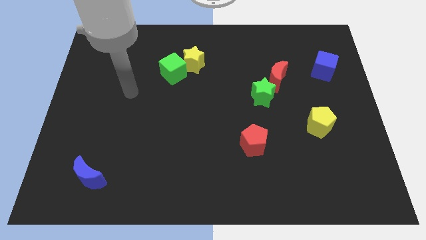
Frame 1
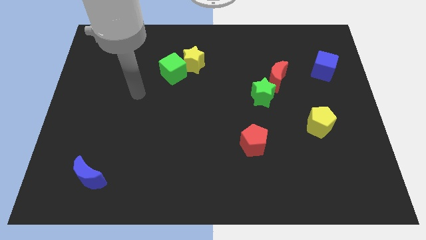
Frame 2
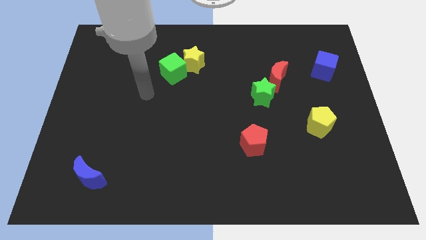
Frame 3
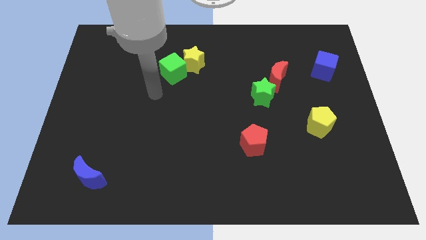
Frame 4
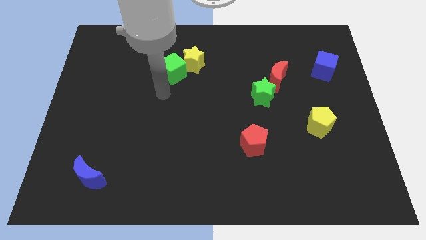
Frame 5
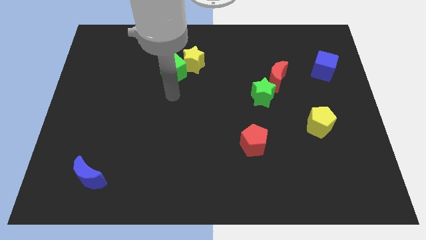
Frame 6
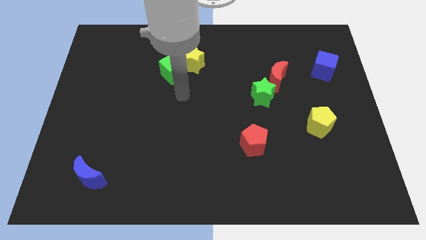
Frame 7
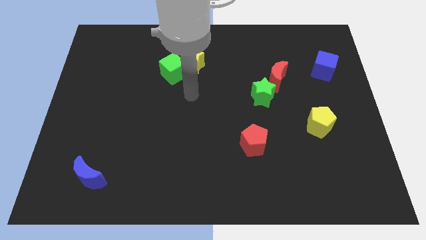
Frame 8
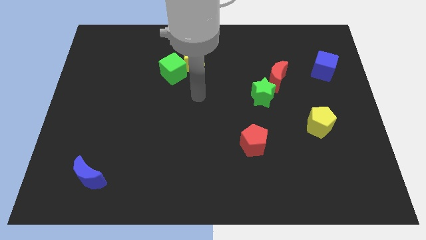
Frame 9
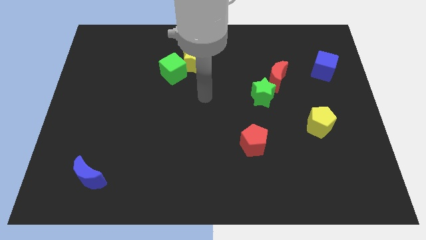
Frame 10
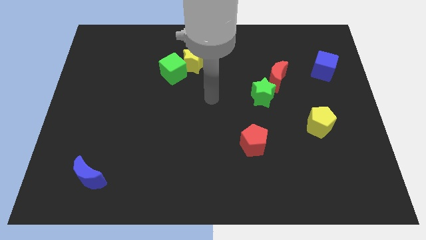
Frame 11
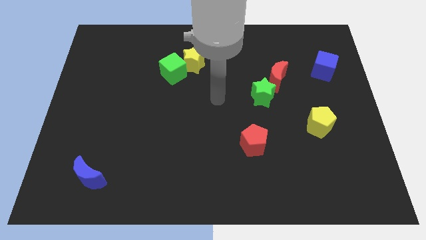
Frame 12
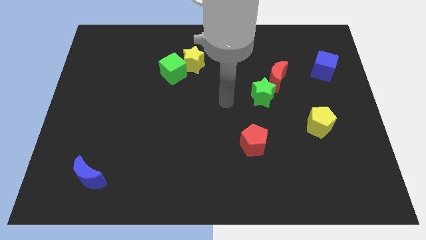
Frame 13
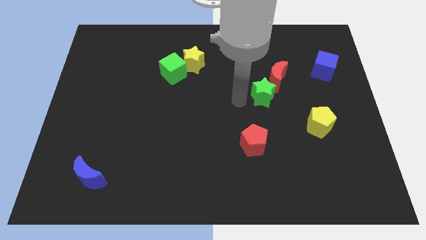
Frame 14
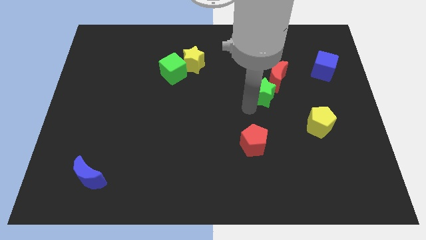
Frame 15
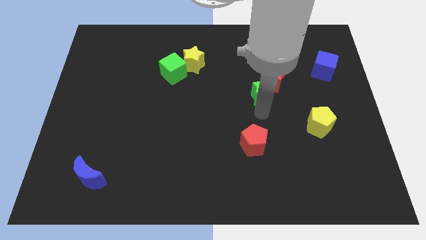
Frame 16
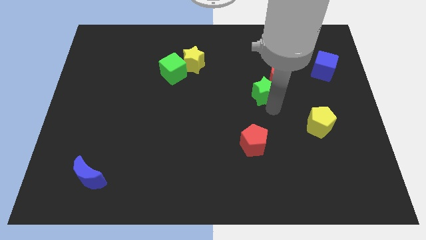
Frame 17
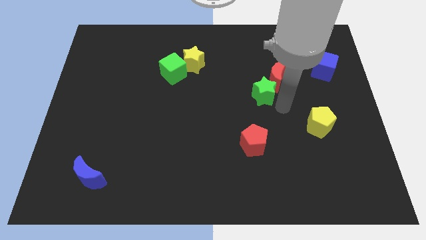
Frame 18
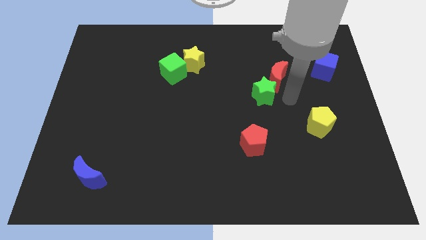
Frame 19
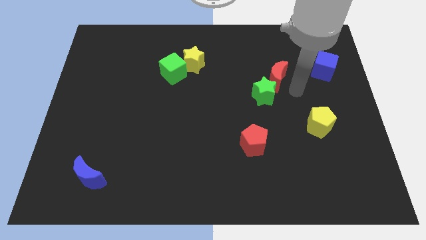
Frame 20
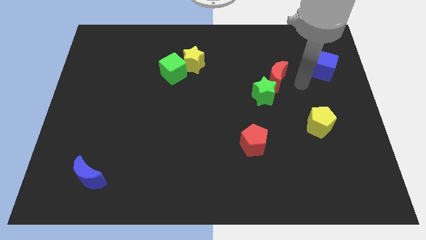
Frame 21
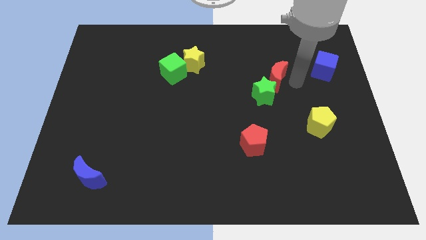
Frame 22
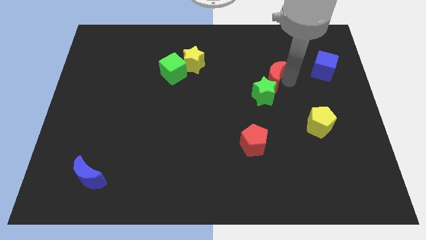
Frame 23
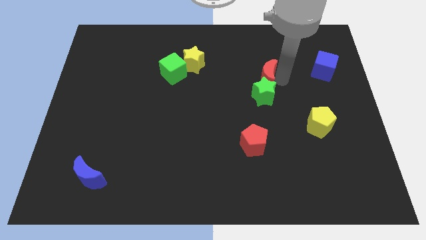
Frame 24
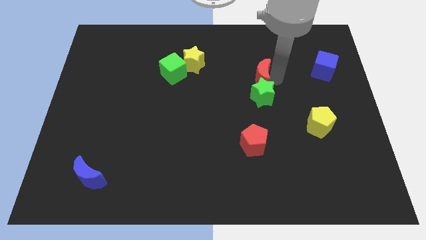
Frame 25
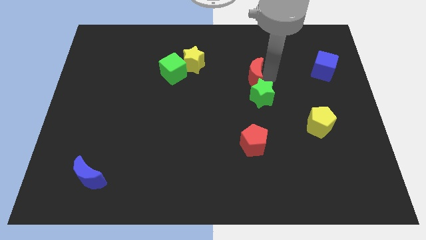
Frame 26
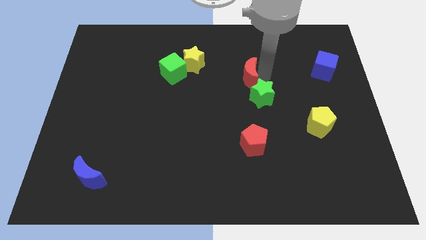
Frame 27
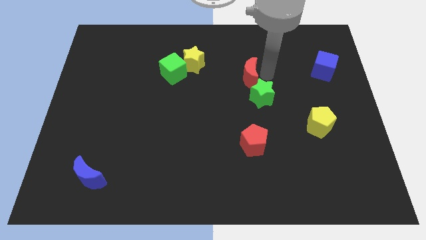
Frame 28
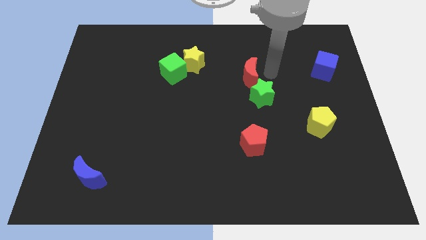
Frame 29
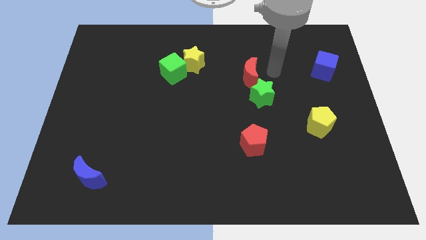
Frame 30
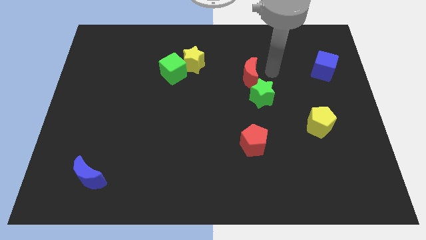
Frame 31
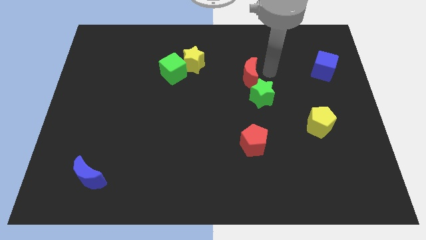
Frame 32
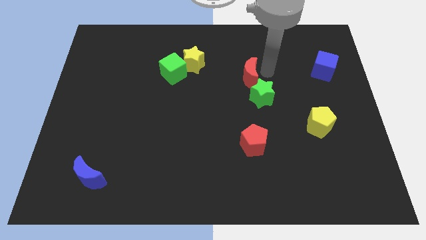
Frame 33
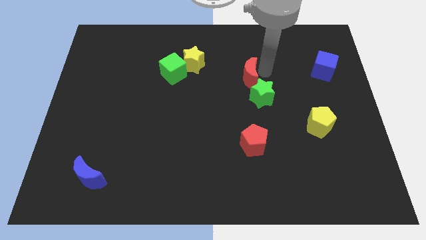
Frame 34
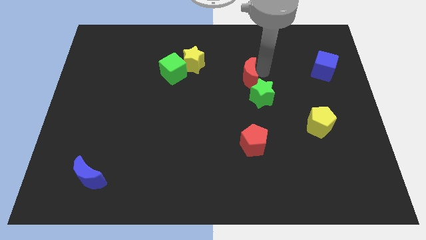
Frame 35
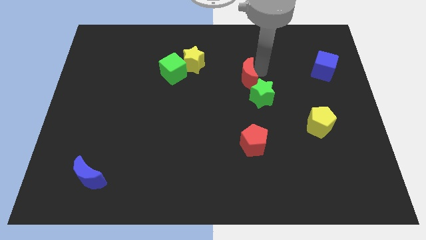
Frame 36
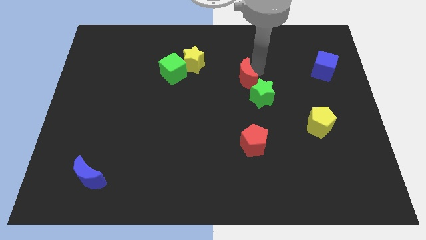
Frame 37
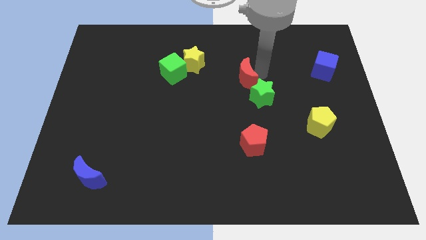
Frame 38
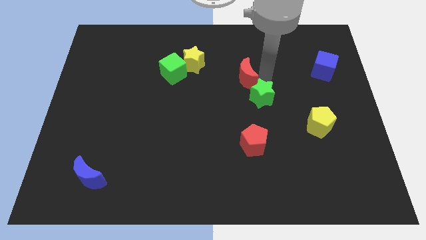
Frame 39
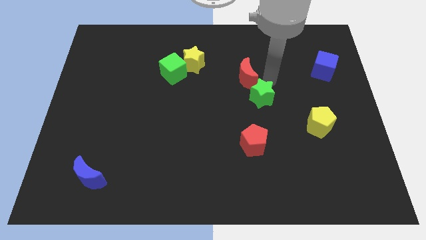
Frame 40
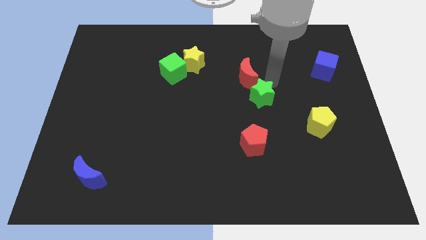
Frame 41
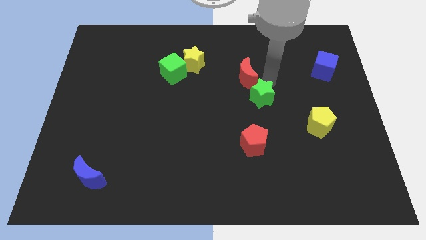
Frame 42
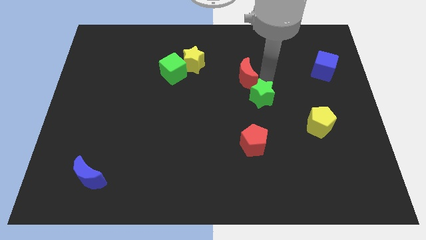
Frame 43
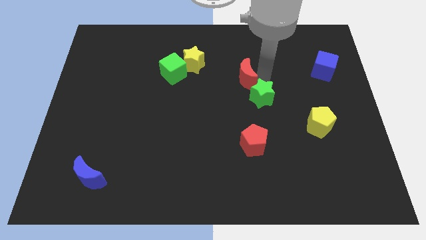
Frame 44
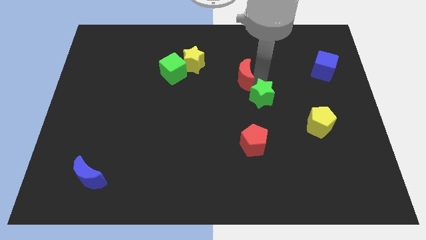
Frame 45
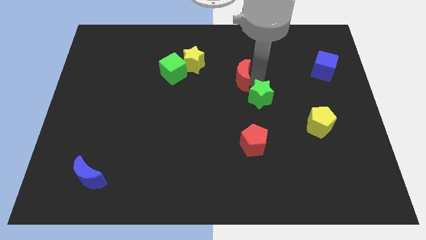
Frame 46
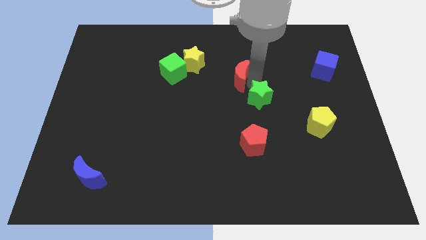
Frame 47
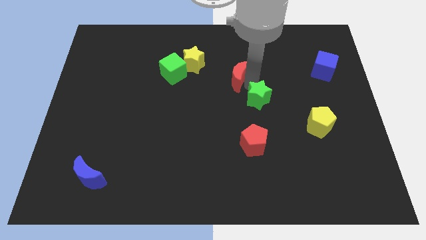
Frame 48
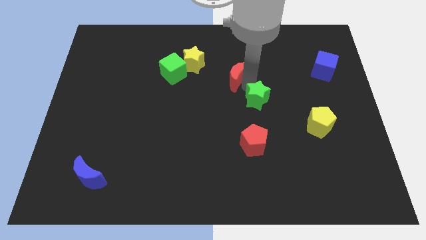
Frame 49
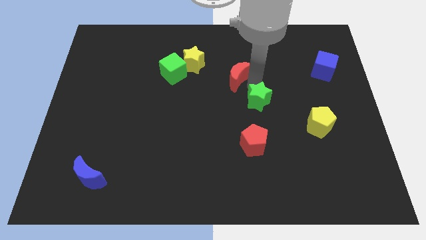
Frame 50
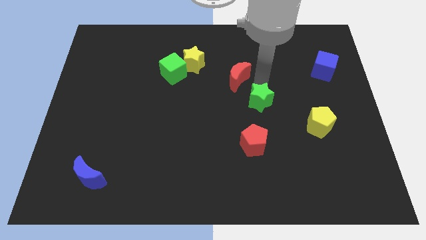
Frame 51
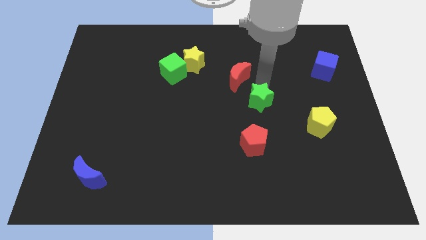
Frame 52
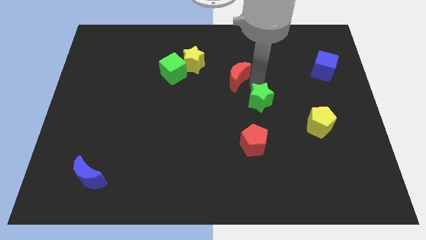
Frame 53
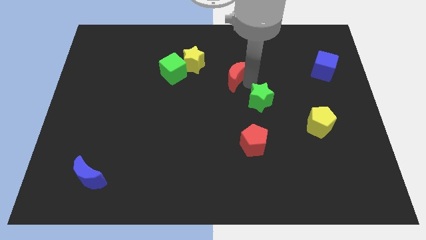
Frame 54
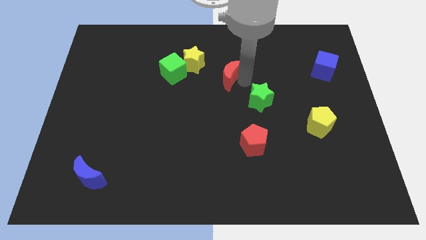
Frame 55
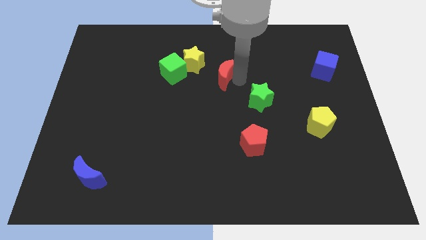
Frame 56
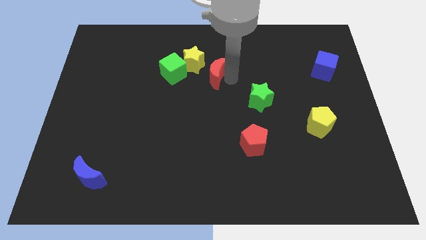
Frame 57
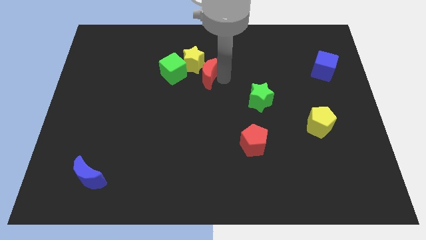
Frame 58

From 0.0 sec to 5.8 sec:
push the red moon towards the yellow star

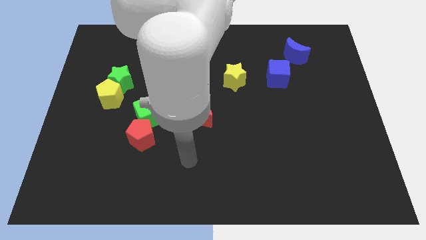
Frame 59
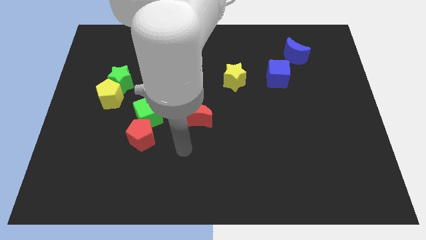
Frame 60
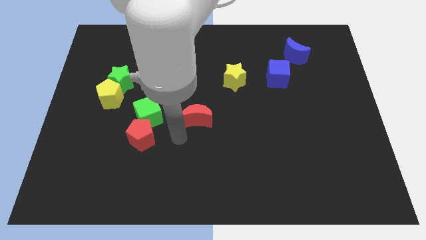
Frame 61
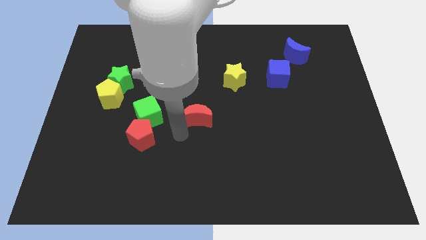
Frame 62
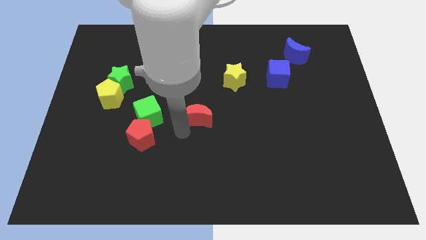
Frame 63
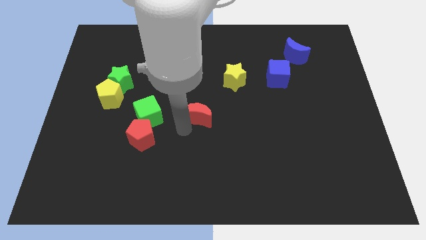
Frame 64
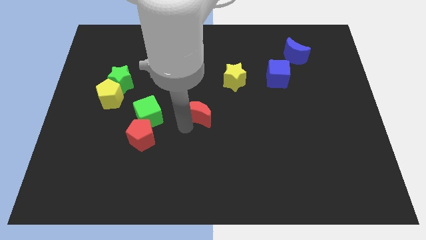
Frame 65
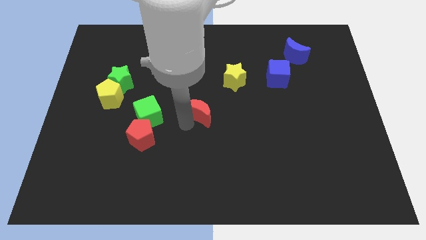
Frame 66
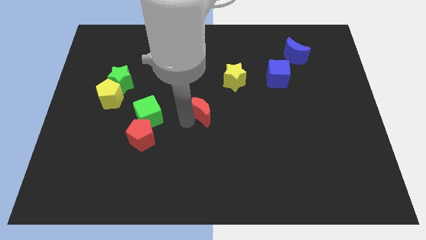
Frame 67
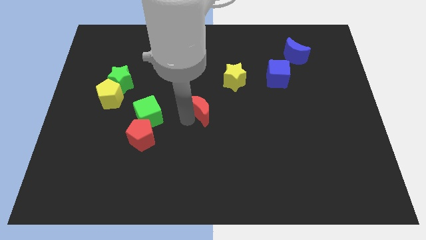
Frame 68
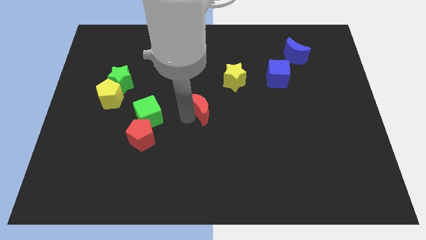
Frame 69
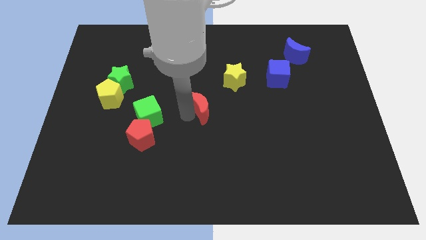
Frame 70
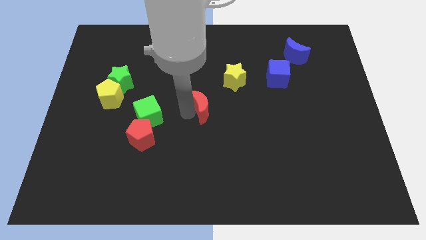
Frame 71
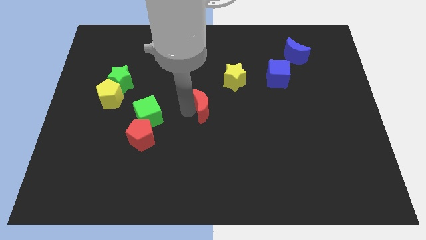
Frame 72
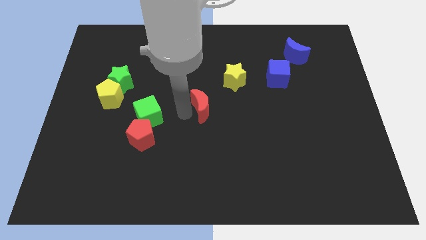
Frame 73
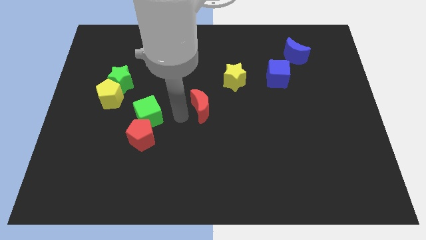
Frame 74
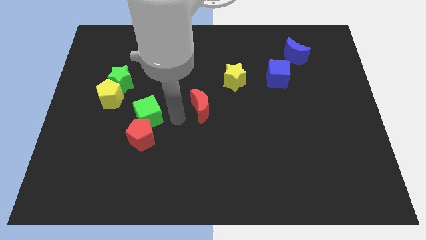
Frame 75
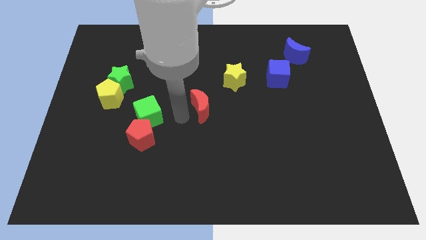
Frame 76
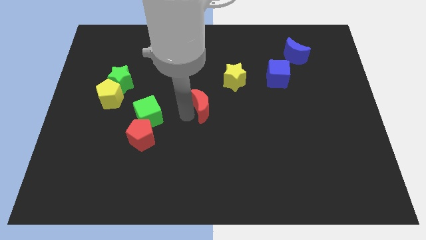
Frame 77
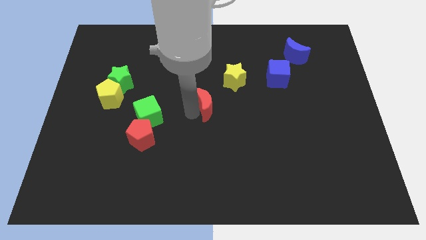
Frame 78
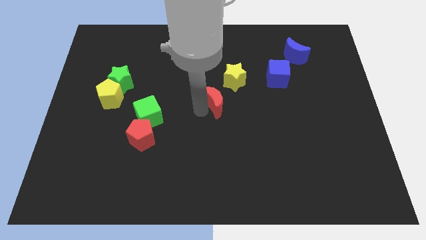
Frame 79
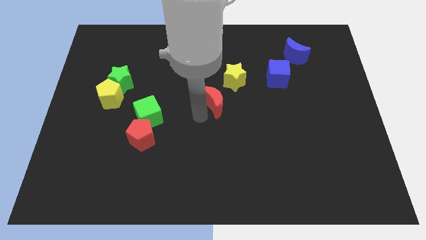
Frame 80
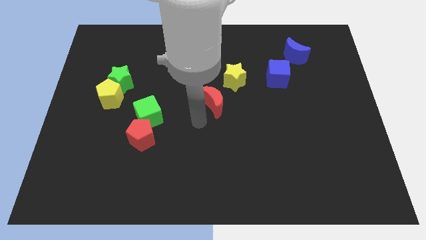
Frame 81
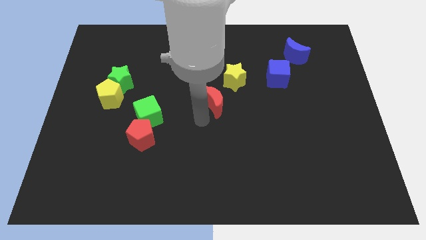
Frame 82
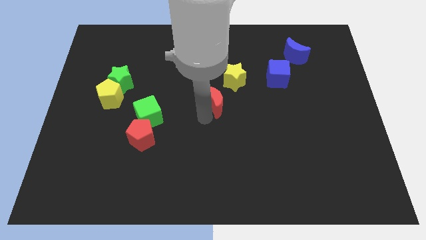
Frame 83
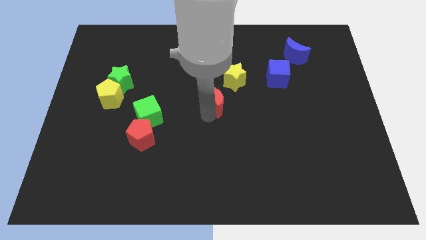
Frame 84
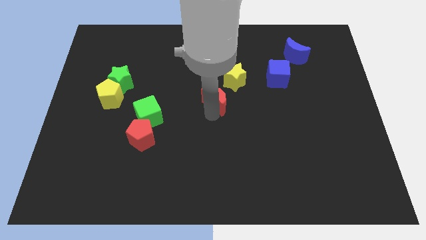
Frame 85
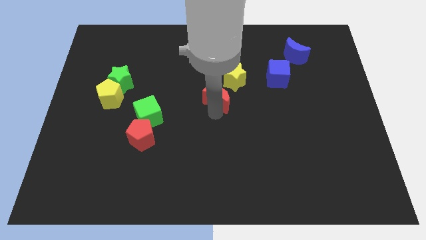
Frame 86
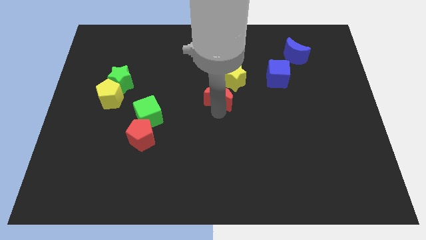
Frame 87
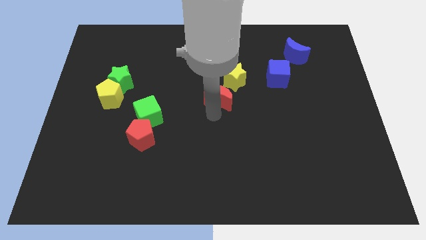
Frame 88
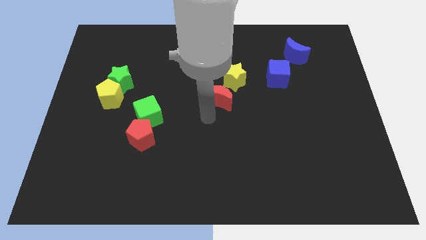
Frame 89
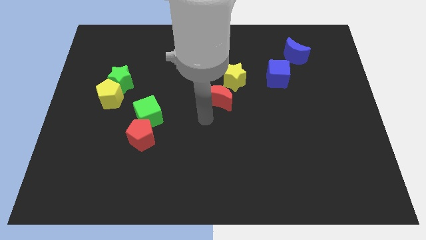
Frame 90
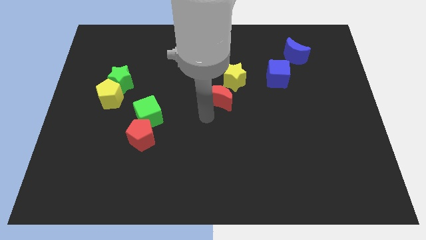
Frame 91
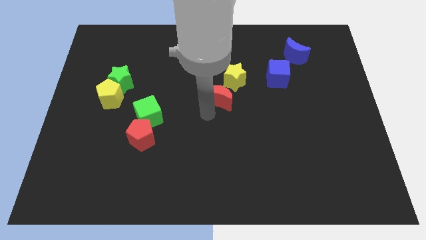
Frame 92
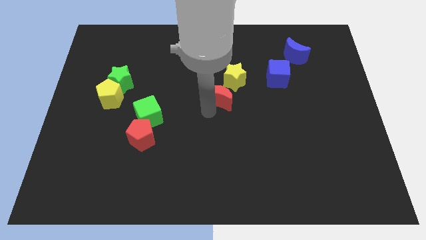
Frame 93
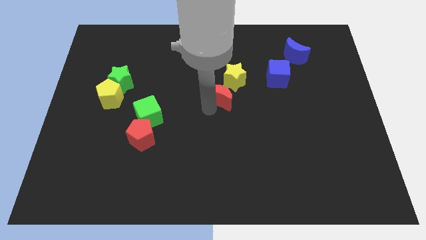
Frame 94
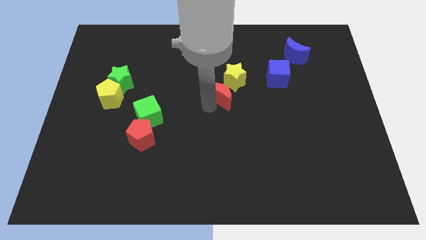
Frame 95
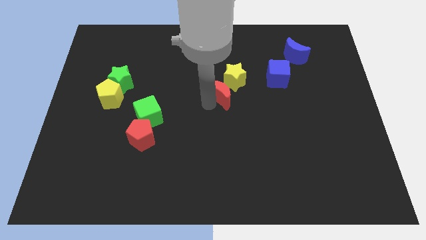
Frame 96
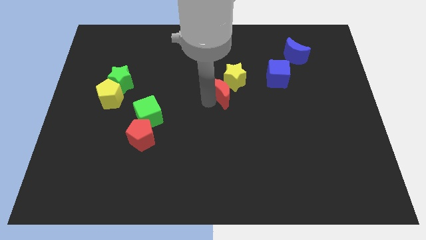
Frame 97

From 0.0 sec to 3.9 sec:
slide the red moon next to the yellow star
